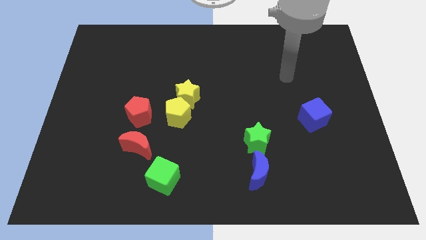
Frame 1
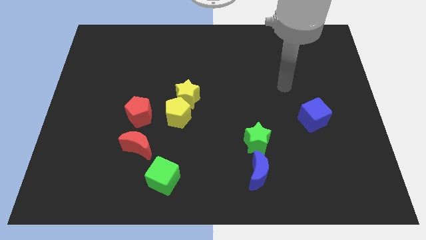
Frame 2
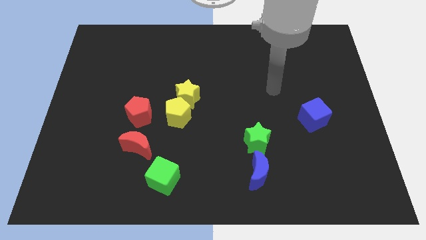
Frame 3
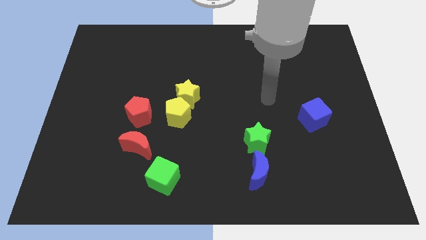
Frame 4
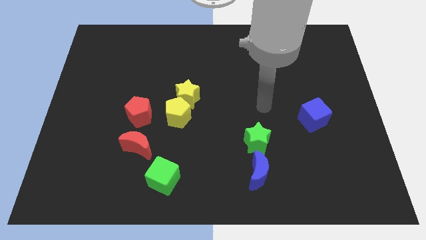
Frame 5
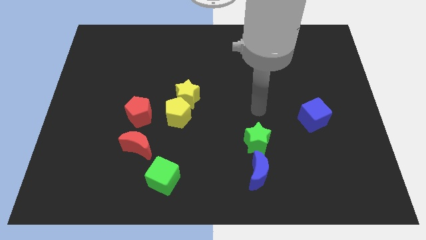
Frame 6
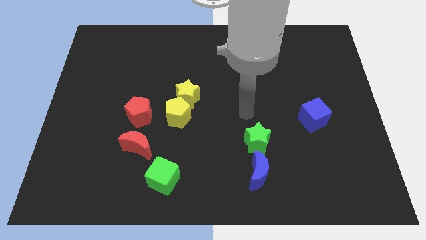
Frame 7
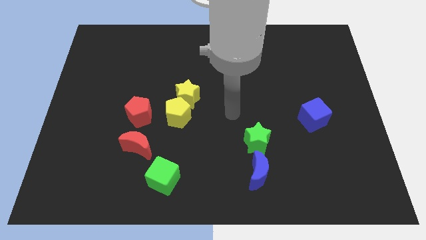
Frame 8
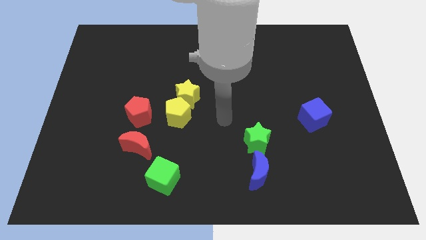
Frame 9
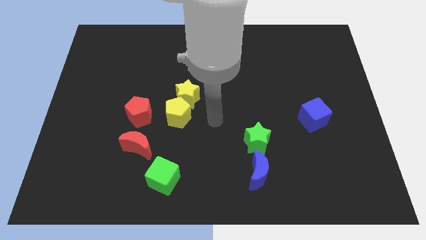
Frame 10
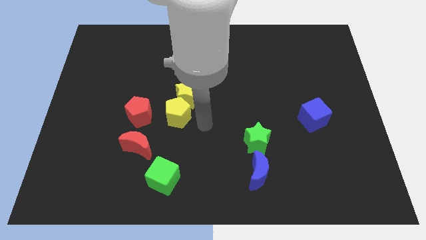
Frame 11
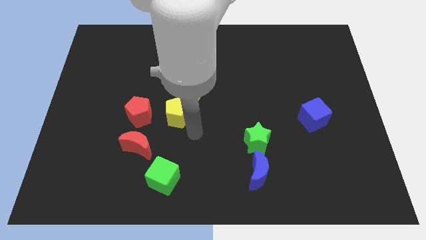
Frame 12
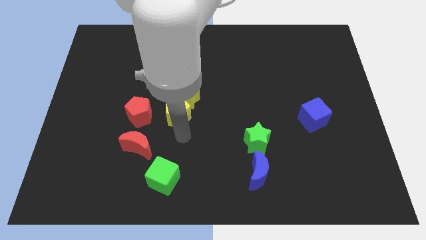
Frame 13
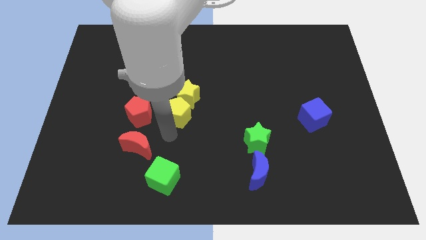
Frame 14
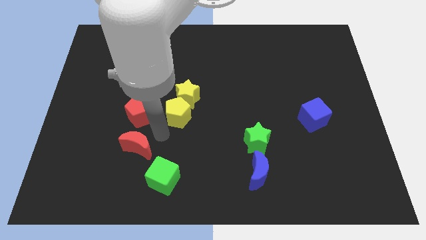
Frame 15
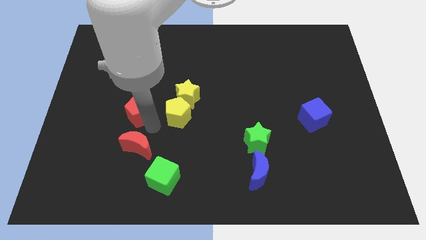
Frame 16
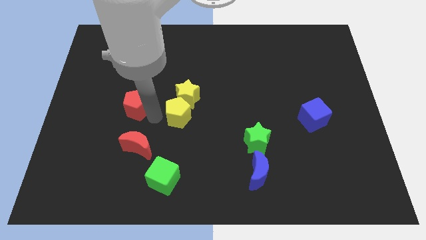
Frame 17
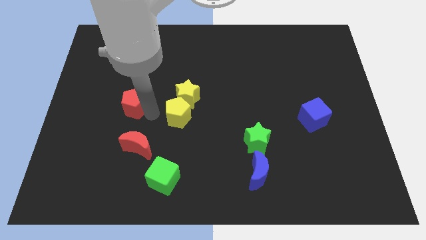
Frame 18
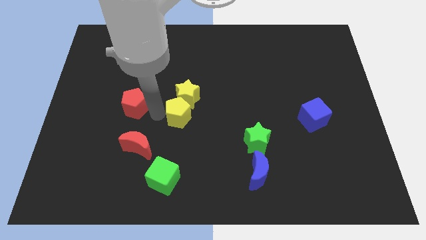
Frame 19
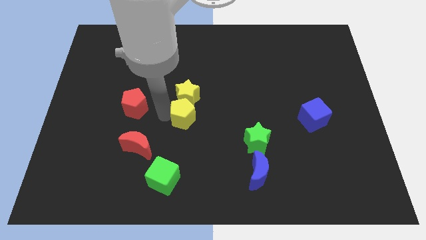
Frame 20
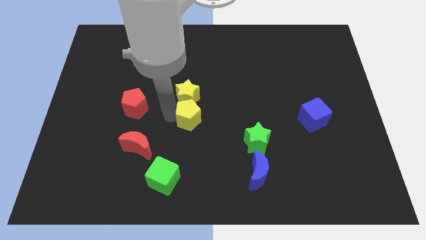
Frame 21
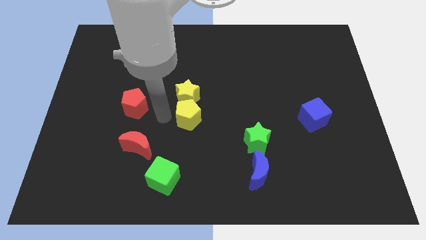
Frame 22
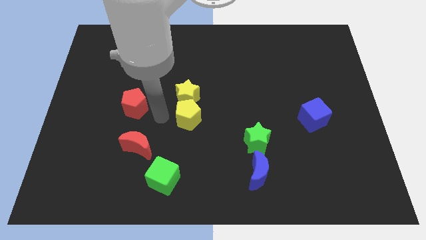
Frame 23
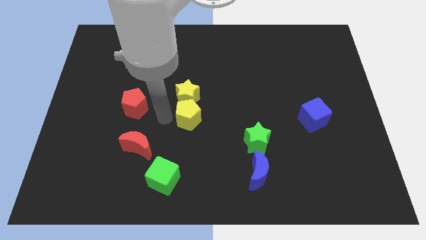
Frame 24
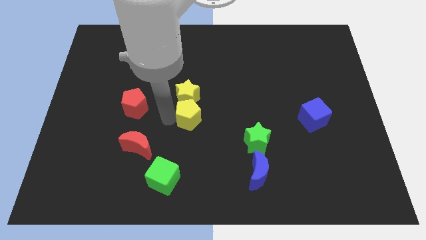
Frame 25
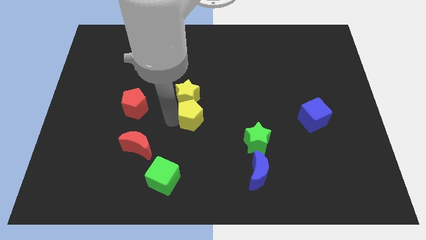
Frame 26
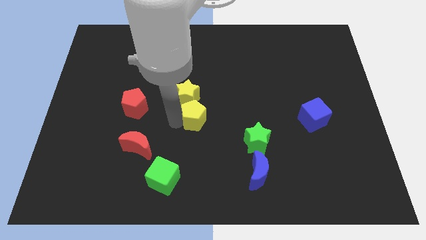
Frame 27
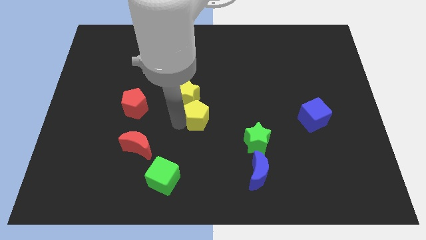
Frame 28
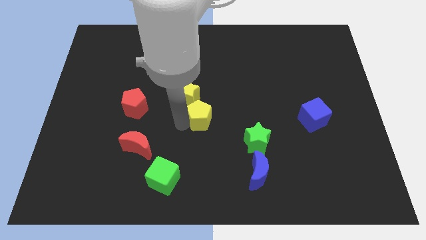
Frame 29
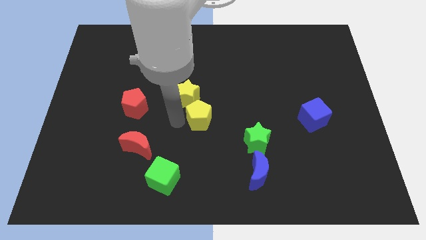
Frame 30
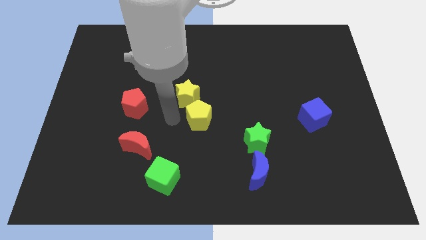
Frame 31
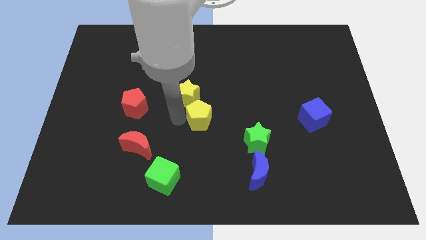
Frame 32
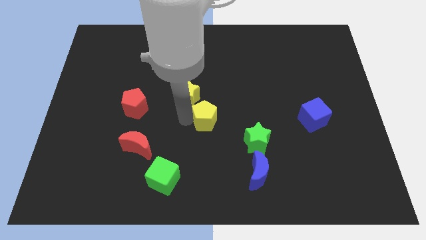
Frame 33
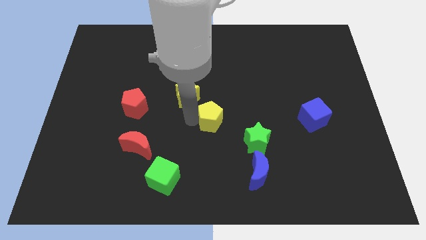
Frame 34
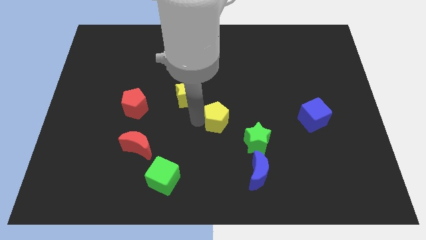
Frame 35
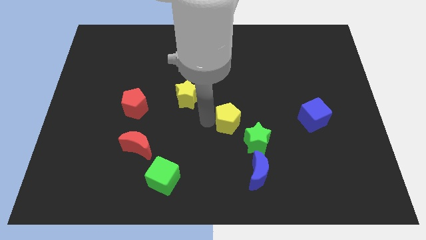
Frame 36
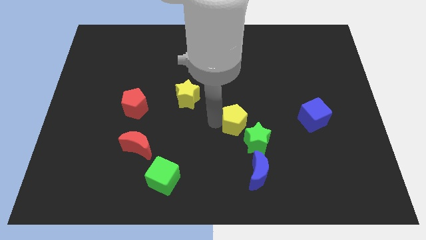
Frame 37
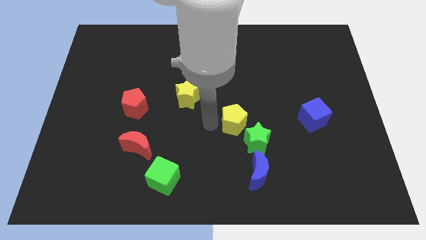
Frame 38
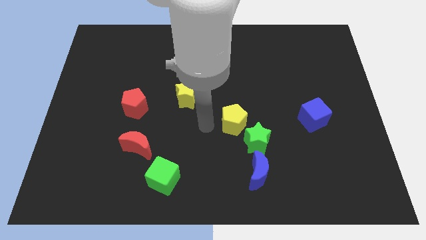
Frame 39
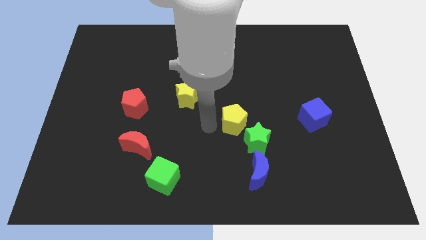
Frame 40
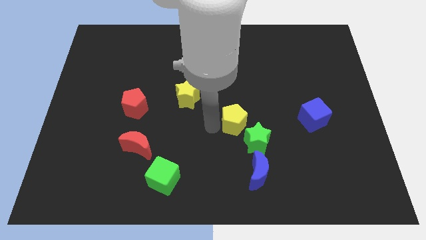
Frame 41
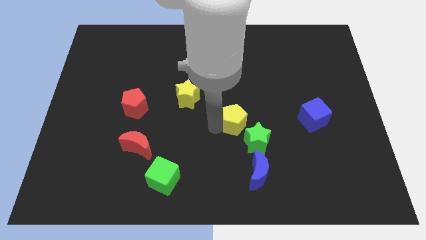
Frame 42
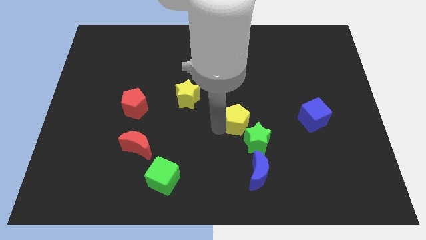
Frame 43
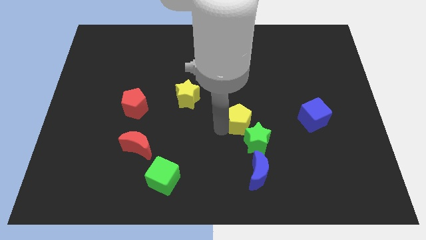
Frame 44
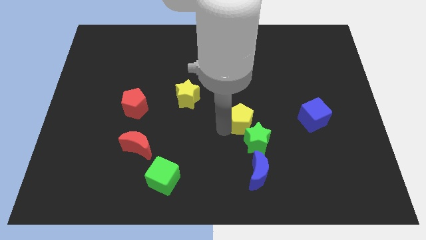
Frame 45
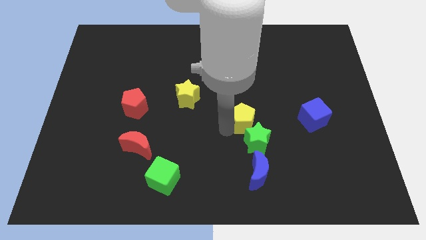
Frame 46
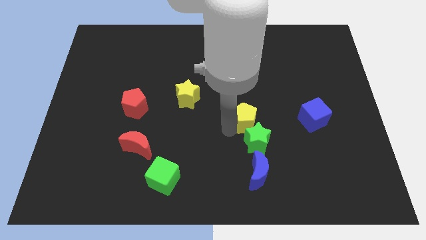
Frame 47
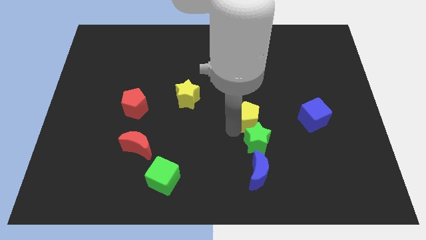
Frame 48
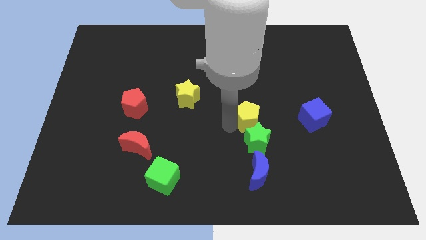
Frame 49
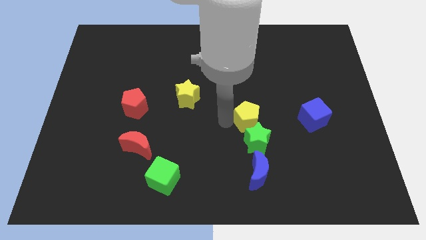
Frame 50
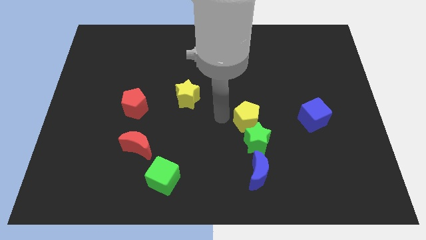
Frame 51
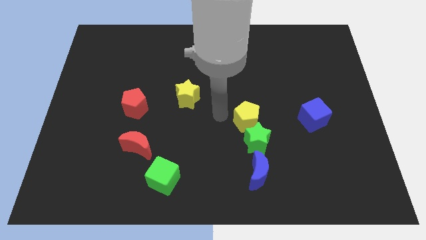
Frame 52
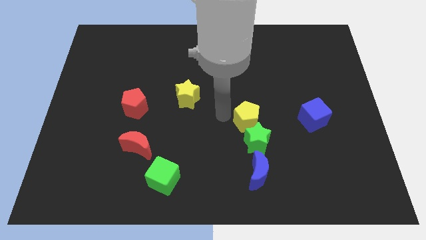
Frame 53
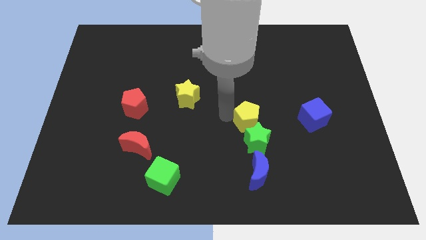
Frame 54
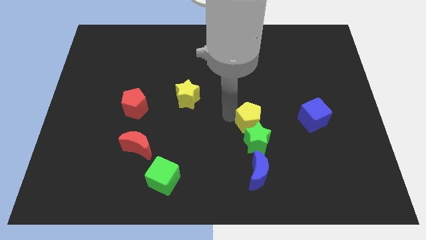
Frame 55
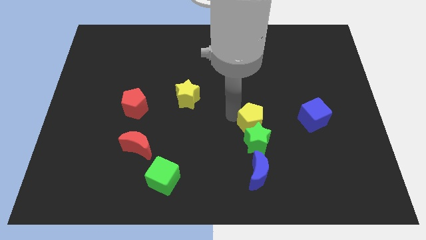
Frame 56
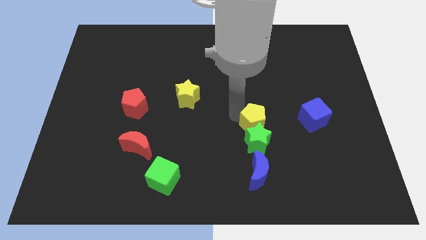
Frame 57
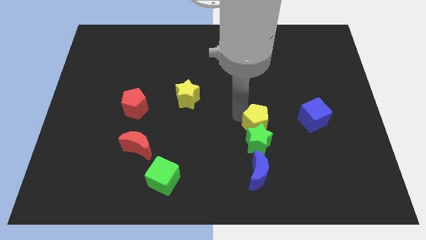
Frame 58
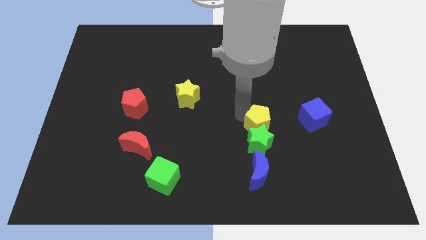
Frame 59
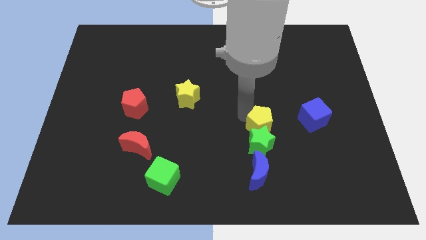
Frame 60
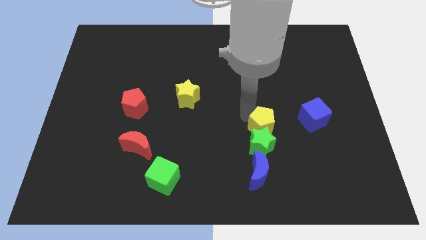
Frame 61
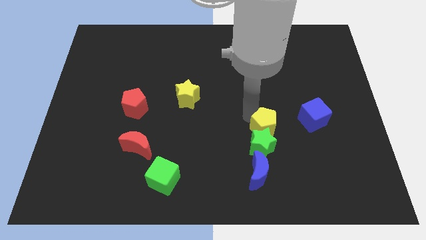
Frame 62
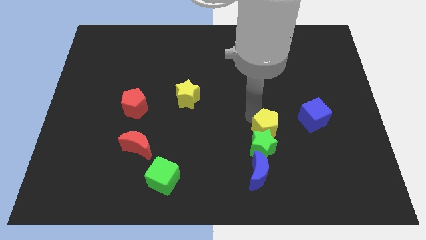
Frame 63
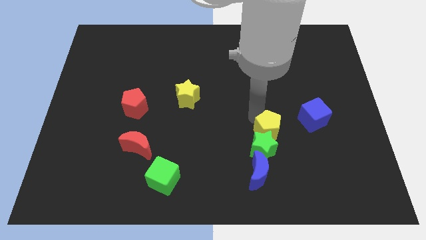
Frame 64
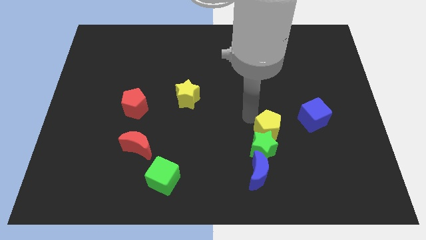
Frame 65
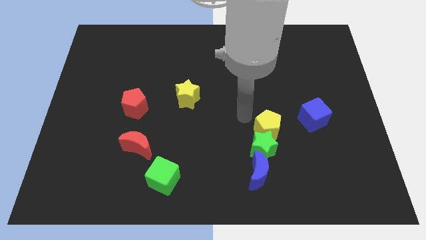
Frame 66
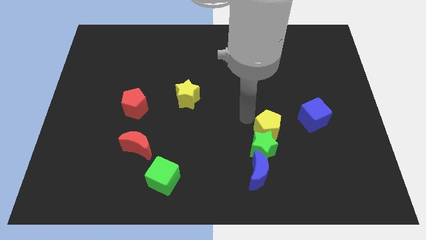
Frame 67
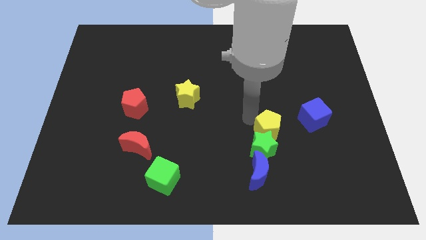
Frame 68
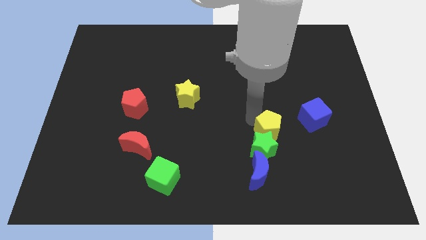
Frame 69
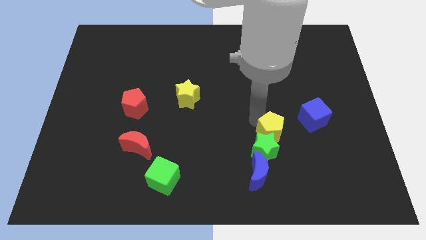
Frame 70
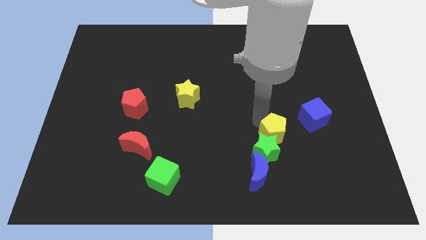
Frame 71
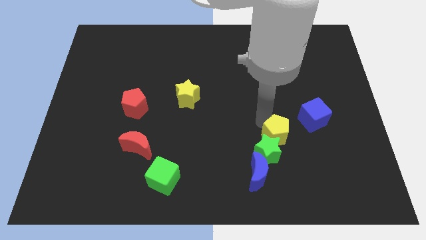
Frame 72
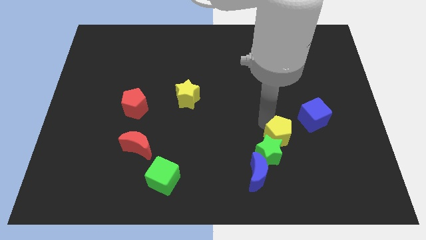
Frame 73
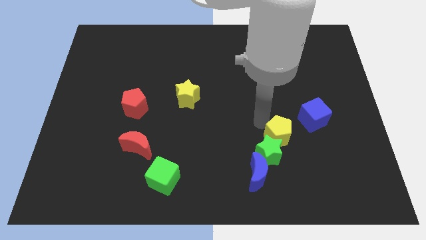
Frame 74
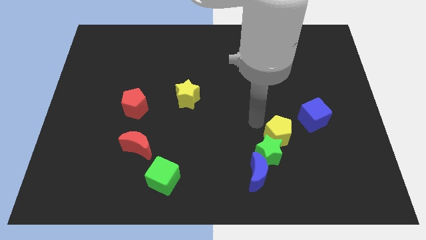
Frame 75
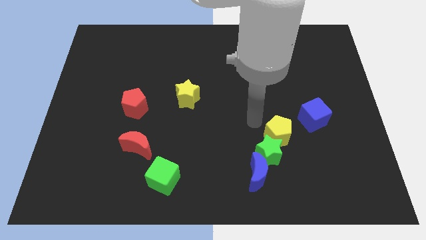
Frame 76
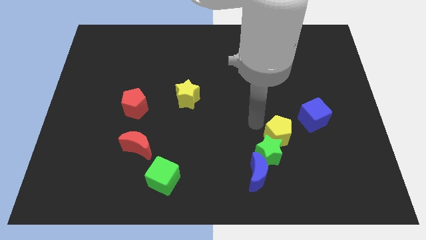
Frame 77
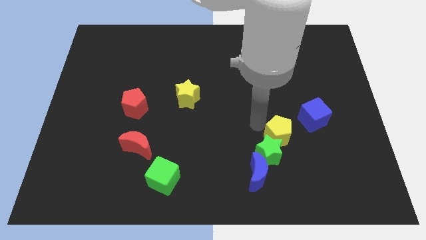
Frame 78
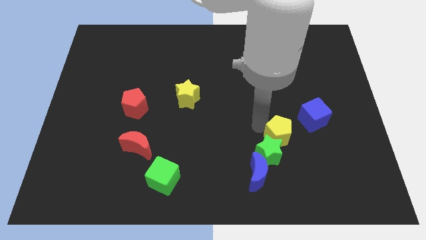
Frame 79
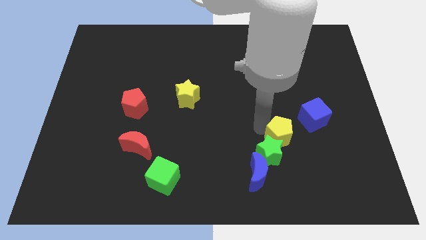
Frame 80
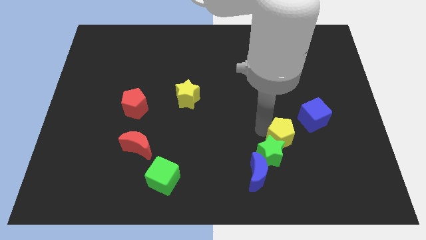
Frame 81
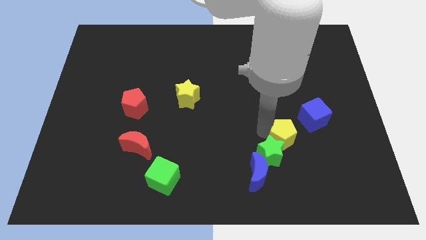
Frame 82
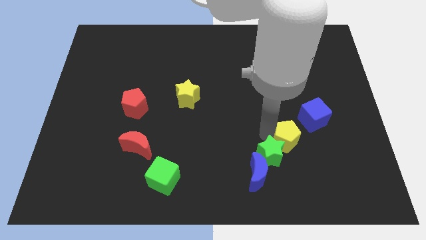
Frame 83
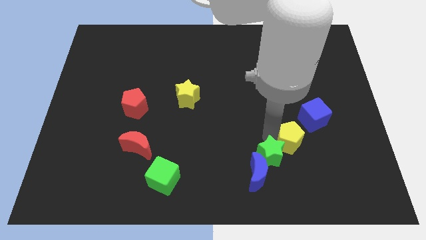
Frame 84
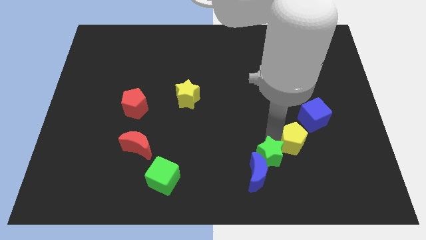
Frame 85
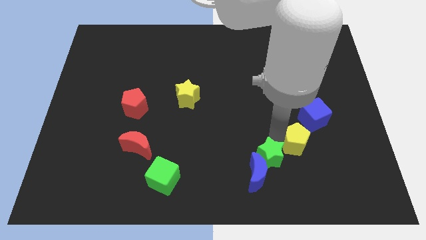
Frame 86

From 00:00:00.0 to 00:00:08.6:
slide the yellow pentagon to the bottom side of the blue cube
